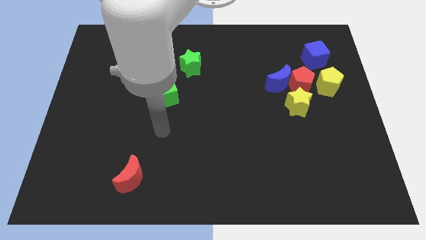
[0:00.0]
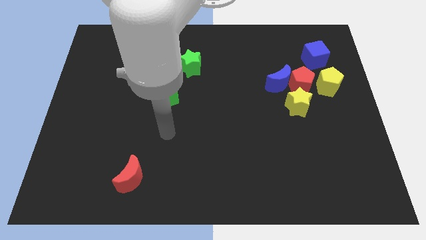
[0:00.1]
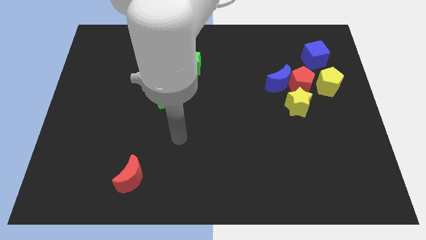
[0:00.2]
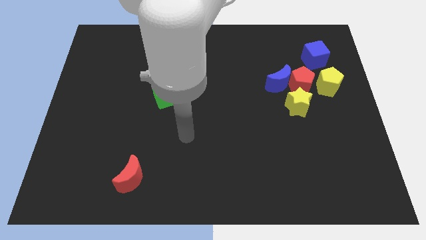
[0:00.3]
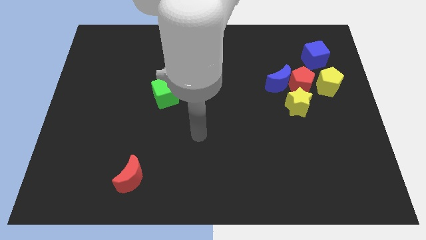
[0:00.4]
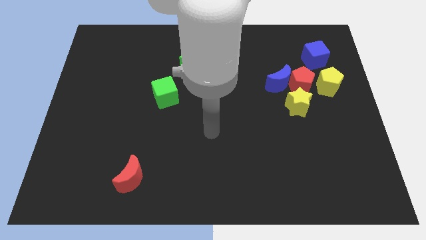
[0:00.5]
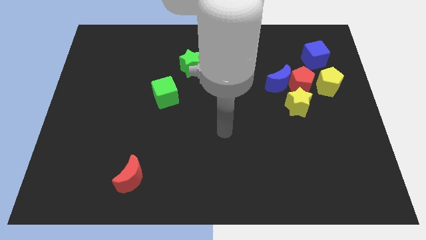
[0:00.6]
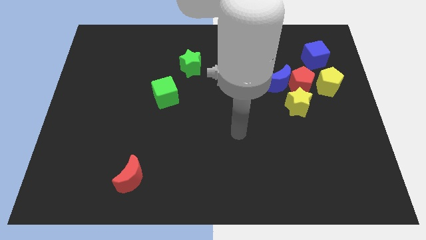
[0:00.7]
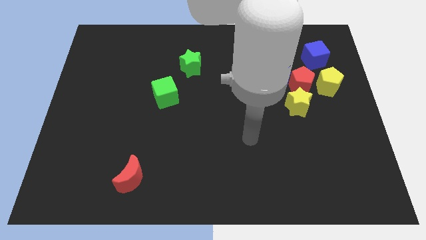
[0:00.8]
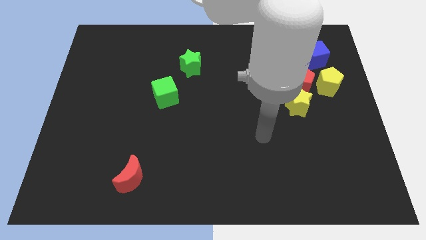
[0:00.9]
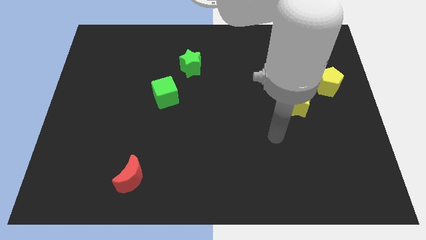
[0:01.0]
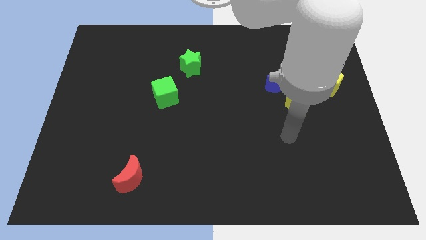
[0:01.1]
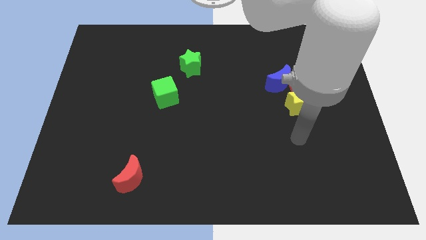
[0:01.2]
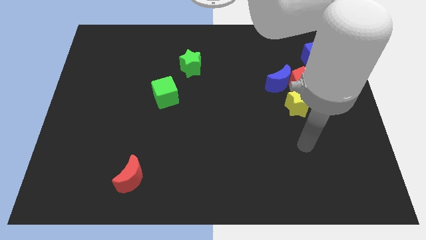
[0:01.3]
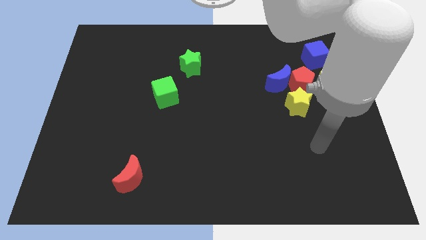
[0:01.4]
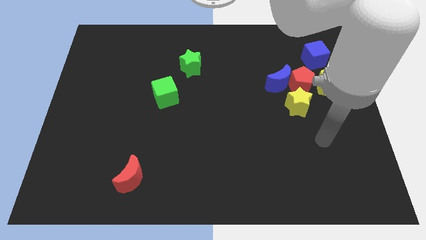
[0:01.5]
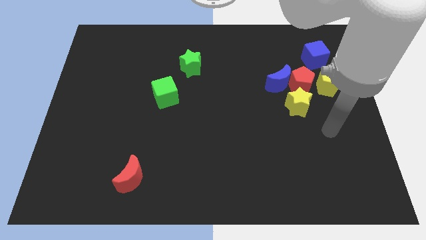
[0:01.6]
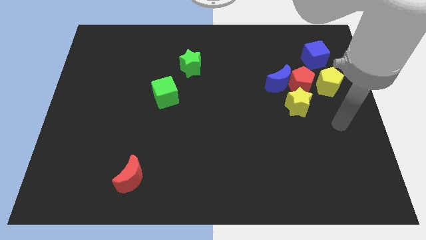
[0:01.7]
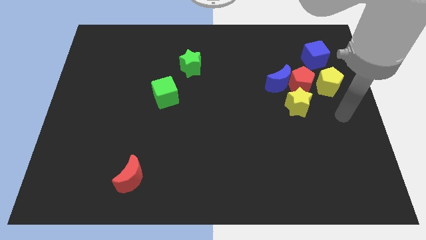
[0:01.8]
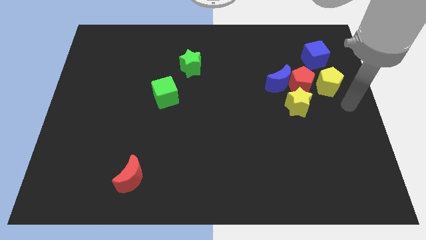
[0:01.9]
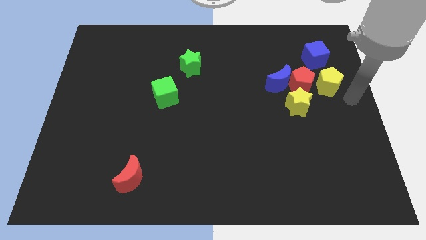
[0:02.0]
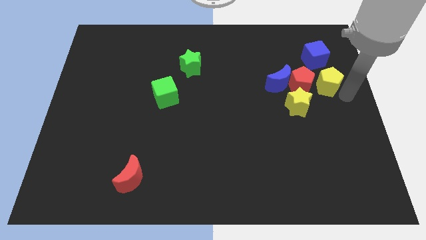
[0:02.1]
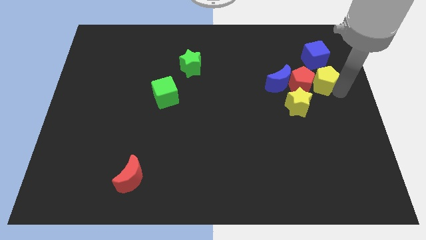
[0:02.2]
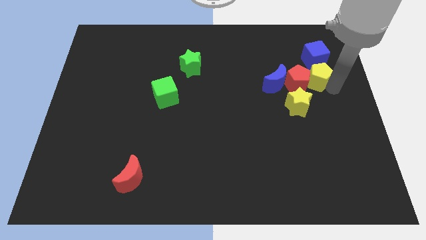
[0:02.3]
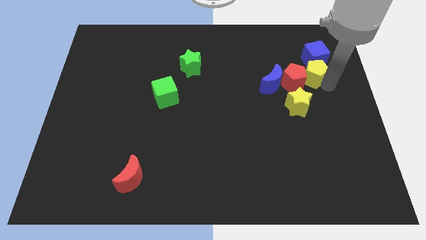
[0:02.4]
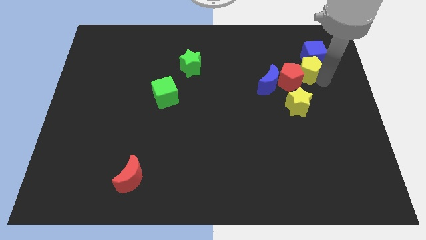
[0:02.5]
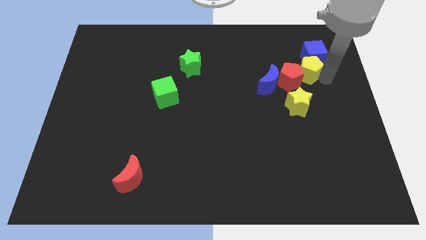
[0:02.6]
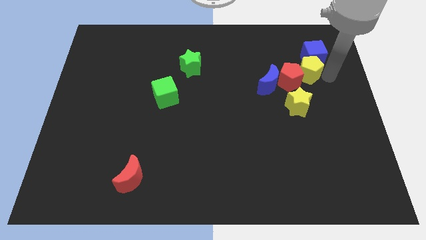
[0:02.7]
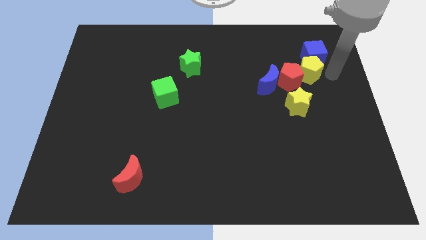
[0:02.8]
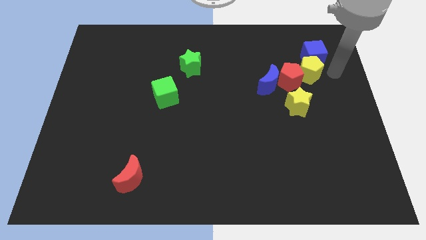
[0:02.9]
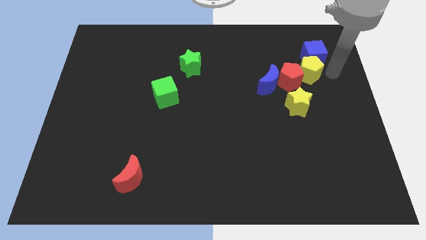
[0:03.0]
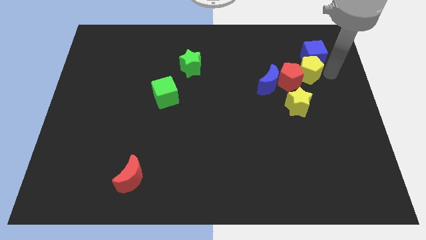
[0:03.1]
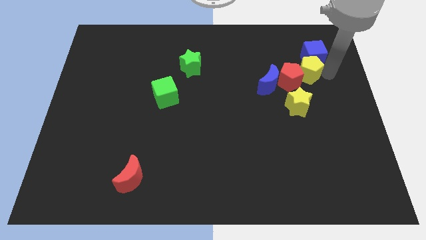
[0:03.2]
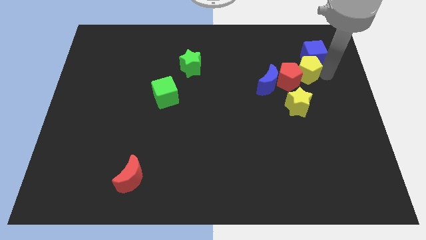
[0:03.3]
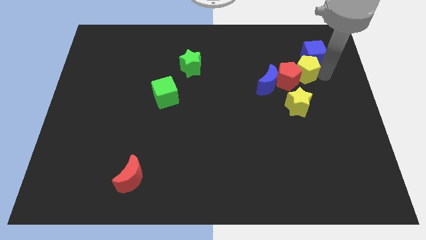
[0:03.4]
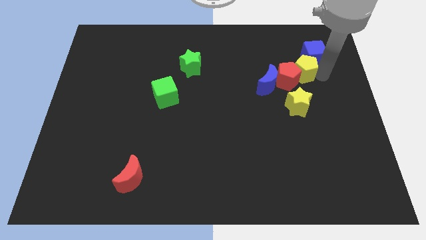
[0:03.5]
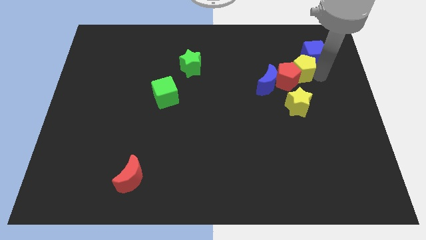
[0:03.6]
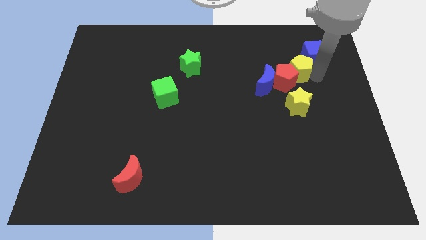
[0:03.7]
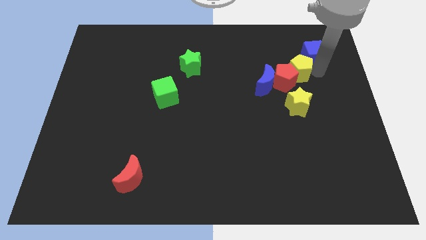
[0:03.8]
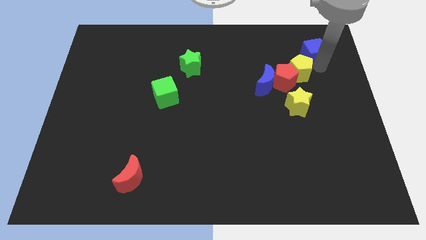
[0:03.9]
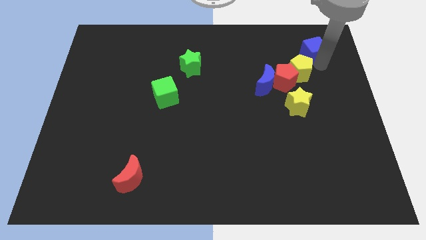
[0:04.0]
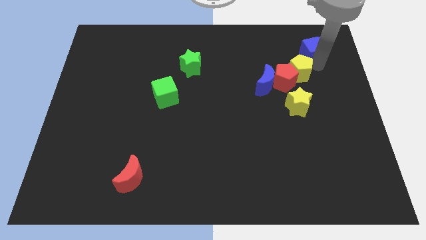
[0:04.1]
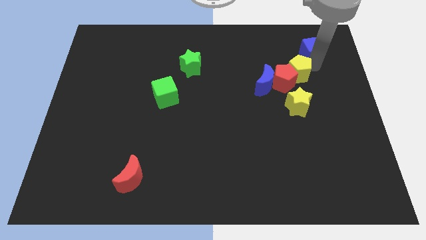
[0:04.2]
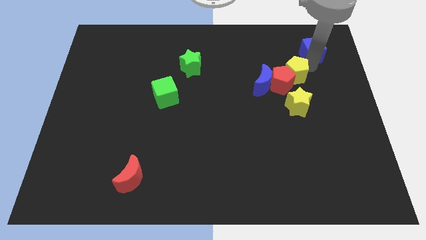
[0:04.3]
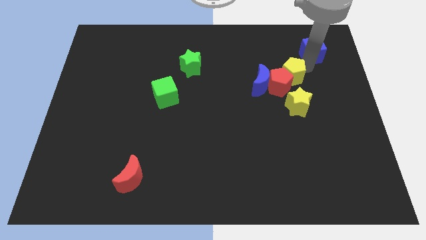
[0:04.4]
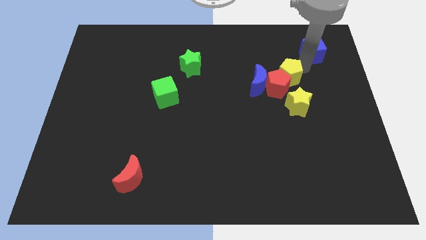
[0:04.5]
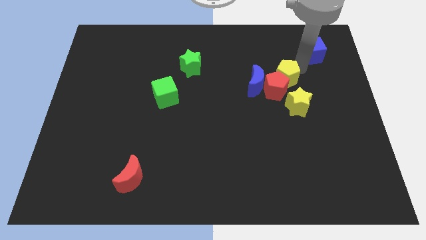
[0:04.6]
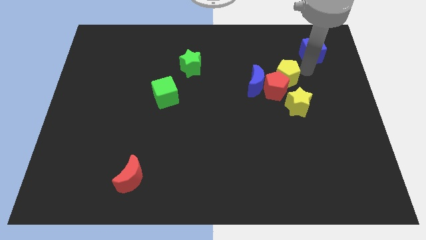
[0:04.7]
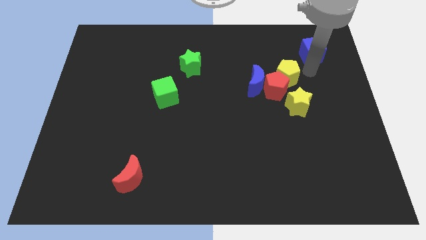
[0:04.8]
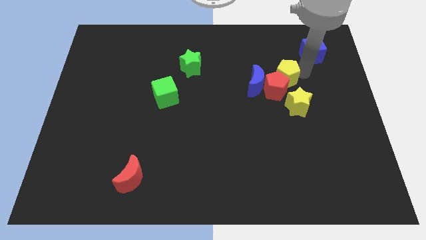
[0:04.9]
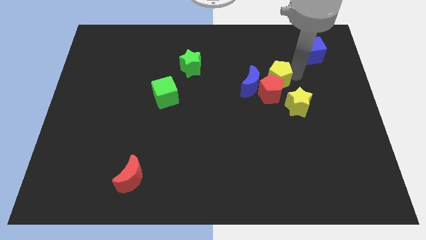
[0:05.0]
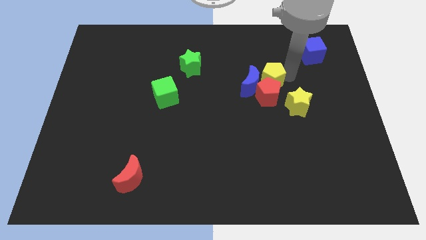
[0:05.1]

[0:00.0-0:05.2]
slide the yellow pentagon next to the blue moon

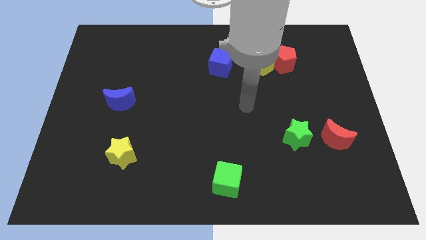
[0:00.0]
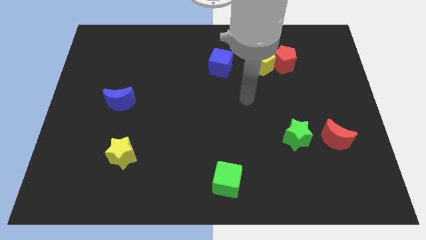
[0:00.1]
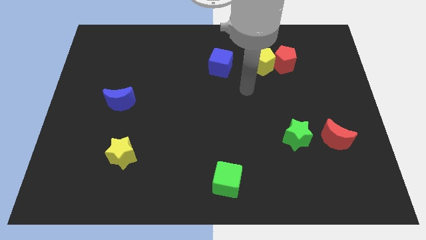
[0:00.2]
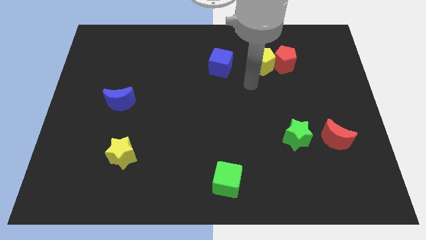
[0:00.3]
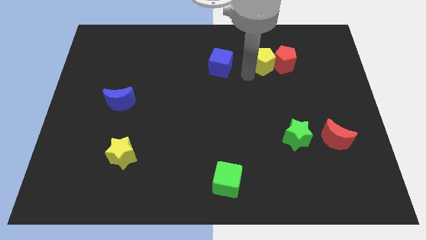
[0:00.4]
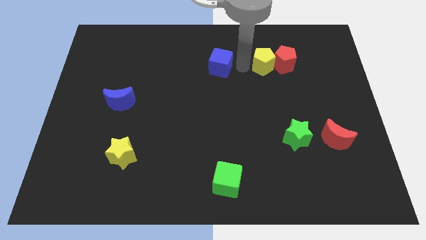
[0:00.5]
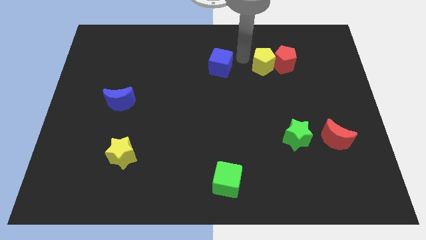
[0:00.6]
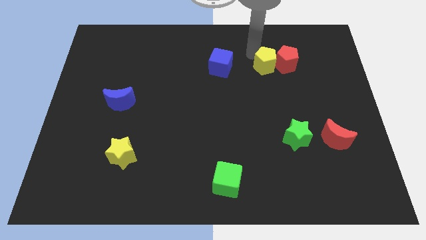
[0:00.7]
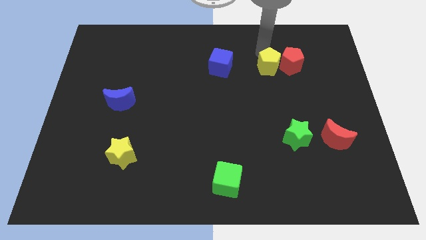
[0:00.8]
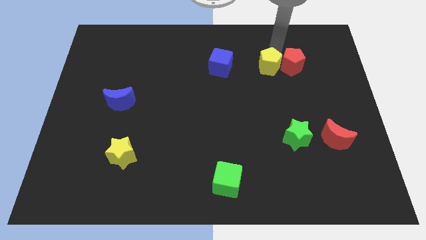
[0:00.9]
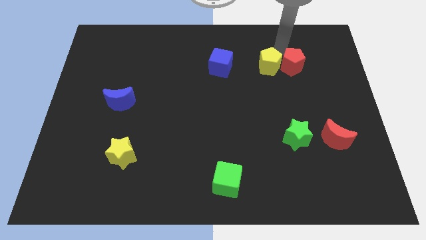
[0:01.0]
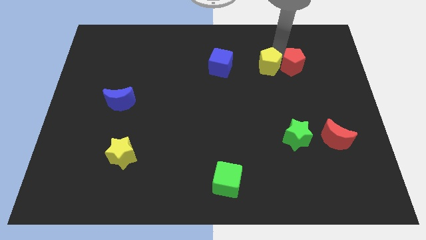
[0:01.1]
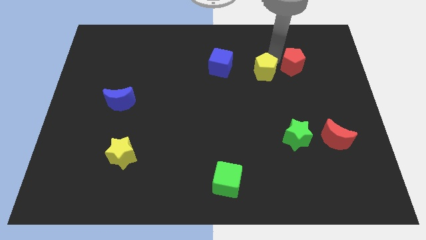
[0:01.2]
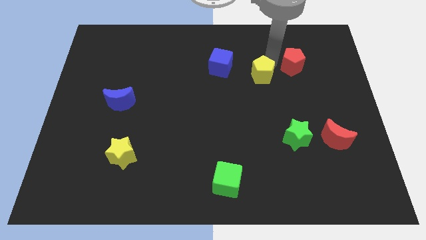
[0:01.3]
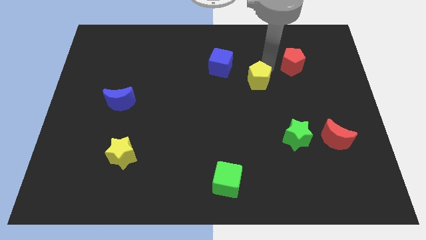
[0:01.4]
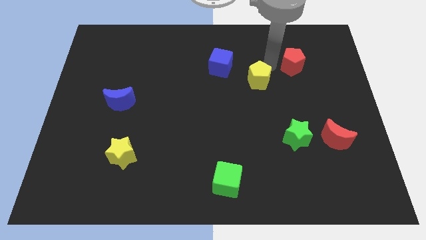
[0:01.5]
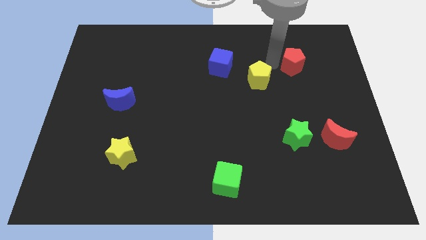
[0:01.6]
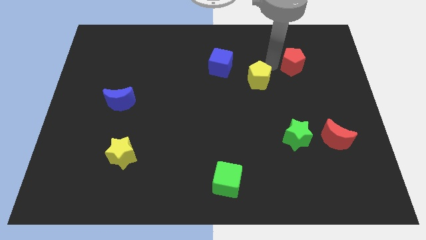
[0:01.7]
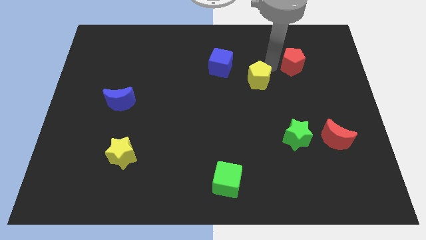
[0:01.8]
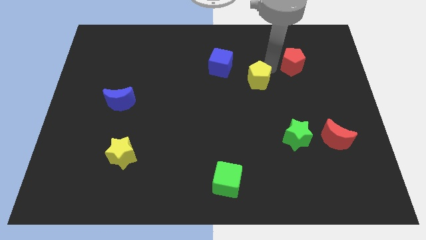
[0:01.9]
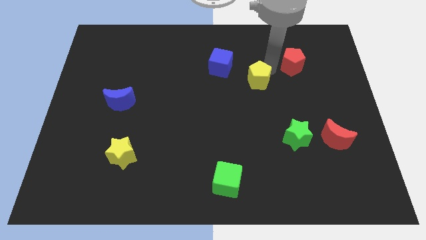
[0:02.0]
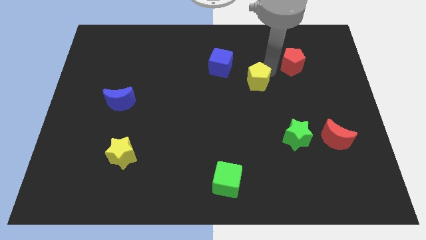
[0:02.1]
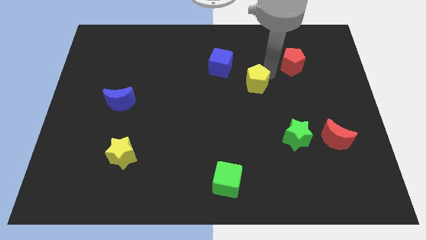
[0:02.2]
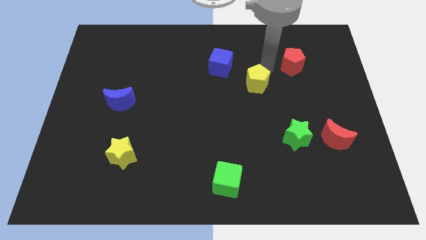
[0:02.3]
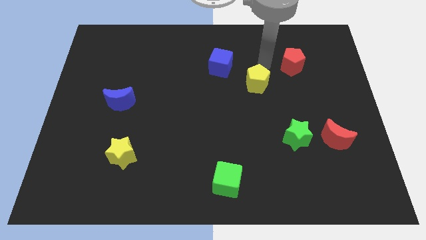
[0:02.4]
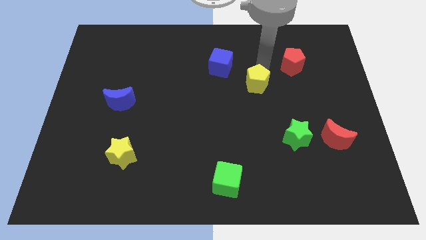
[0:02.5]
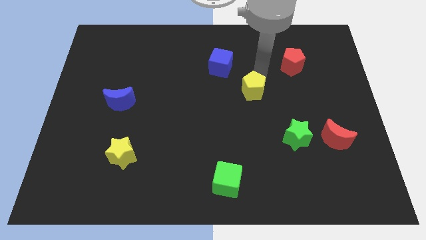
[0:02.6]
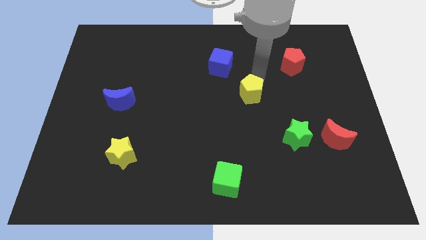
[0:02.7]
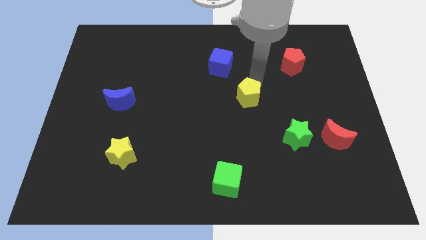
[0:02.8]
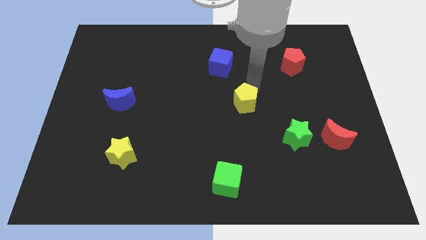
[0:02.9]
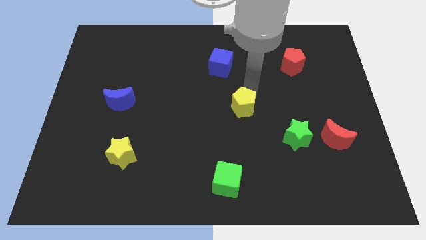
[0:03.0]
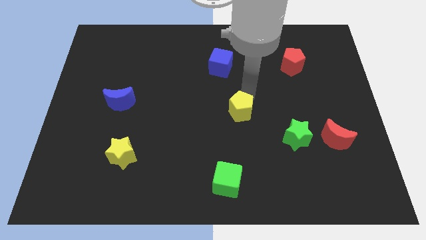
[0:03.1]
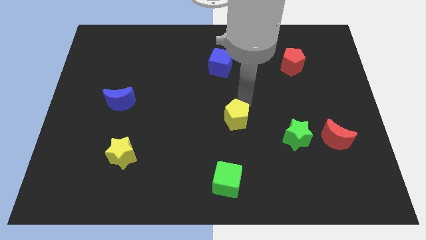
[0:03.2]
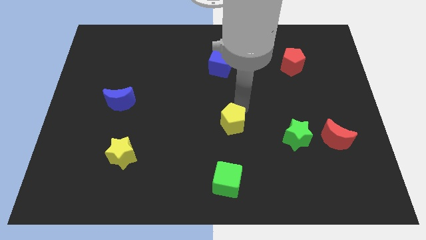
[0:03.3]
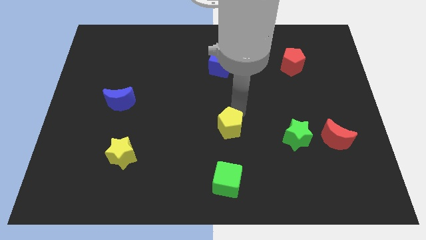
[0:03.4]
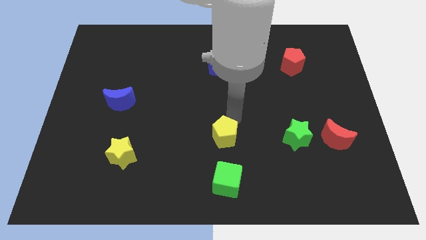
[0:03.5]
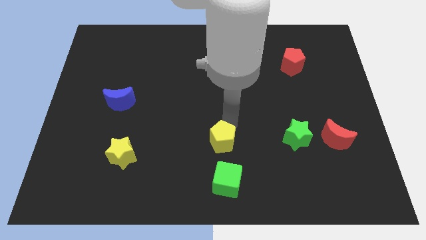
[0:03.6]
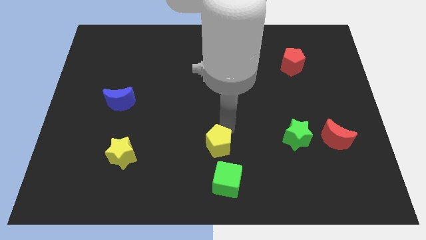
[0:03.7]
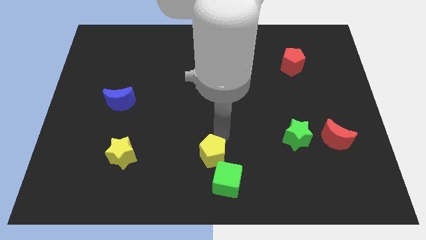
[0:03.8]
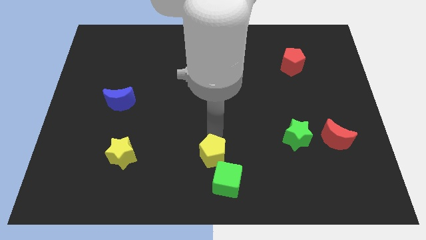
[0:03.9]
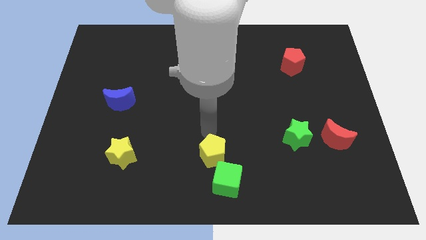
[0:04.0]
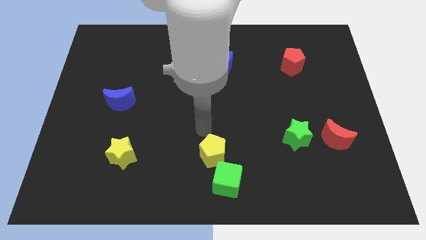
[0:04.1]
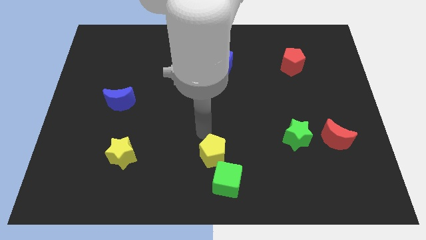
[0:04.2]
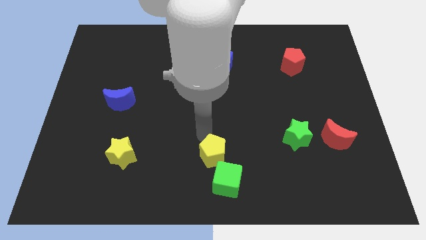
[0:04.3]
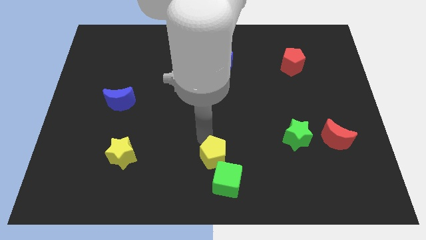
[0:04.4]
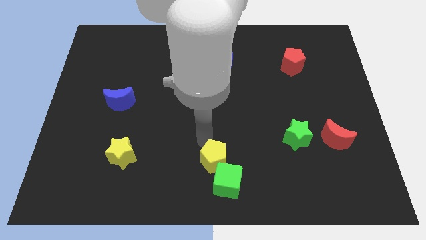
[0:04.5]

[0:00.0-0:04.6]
put the yellow pentagon to the green cube
